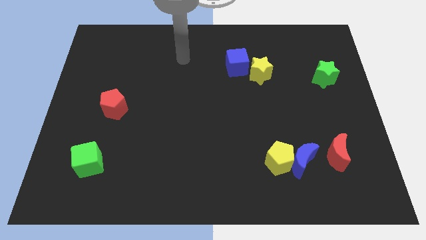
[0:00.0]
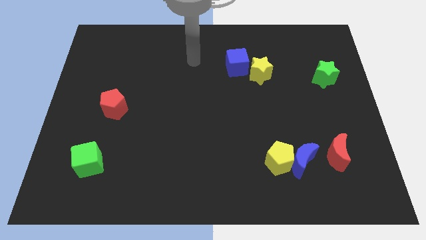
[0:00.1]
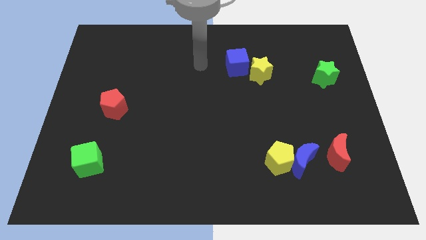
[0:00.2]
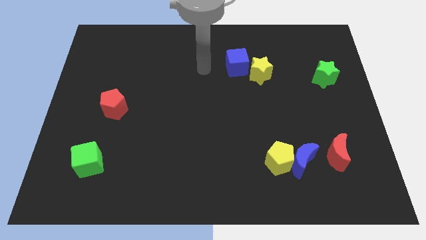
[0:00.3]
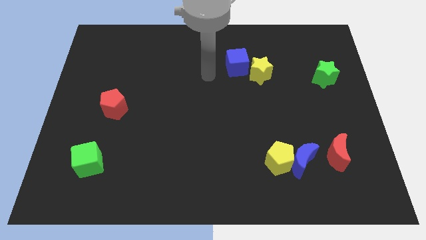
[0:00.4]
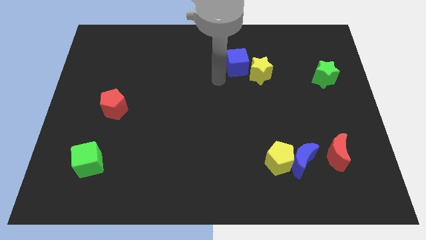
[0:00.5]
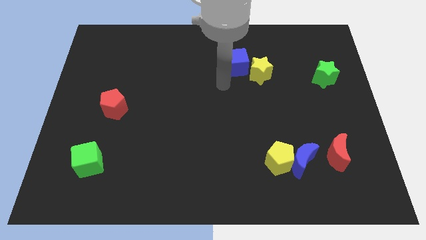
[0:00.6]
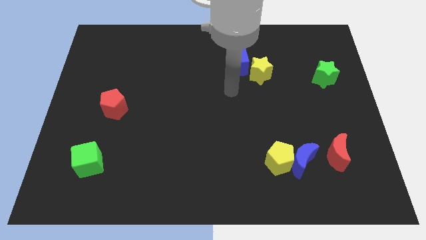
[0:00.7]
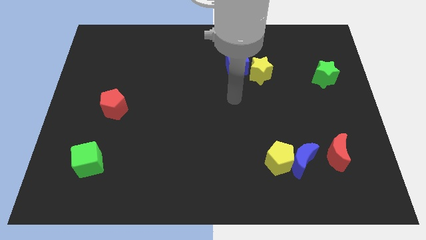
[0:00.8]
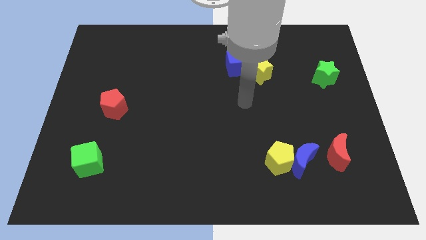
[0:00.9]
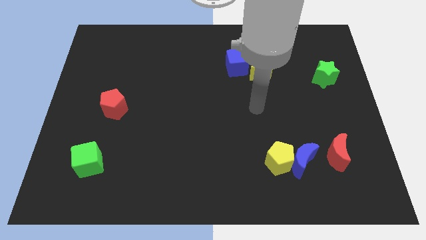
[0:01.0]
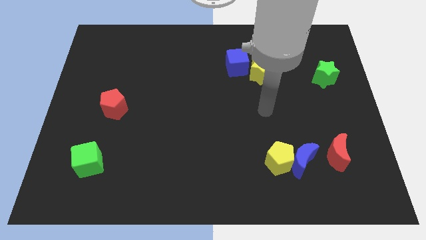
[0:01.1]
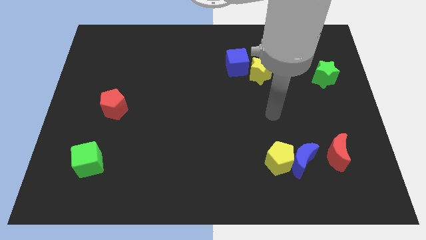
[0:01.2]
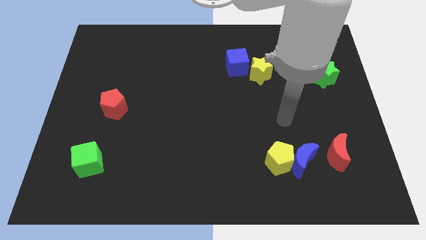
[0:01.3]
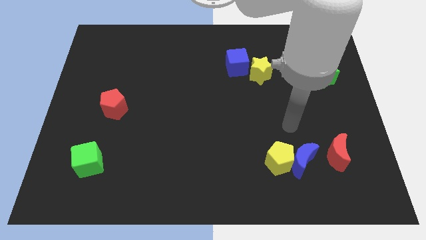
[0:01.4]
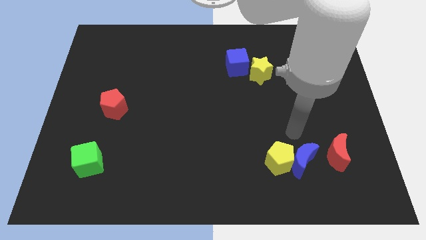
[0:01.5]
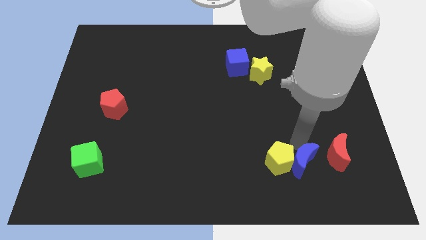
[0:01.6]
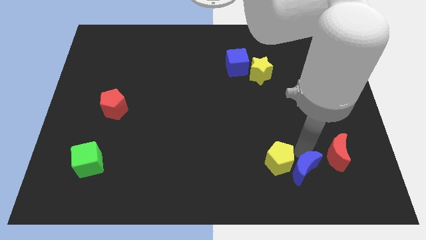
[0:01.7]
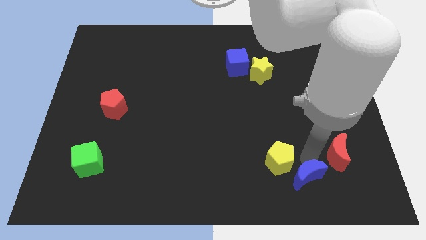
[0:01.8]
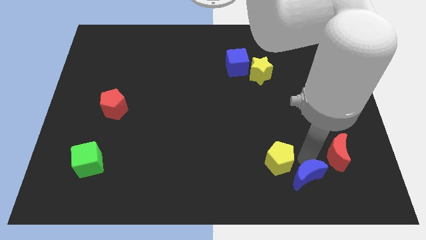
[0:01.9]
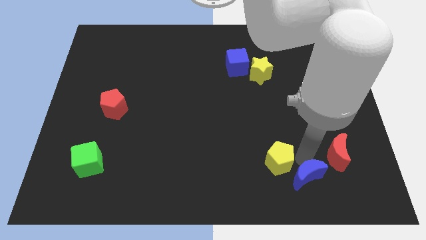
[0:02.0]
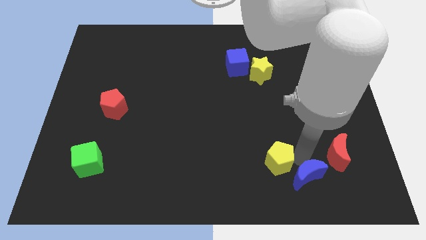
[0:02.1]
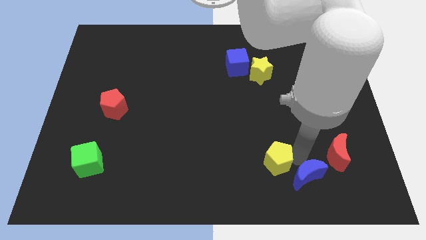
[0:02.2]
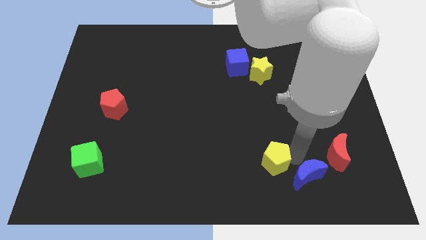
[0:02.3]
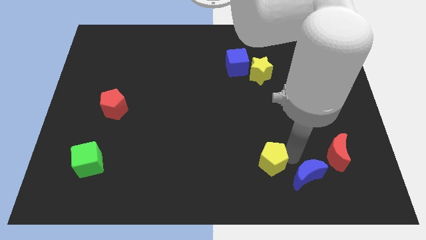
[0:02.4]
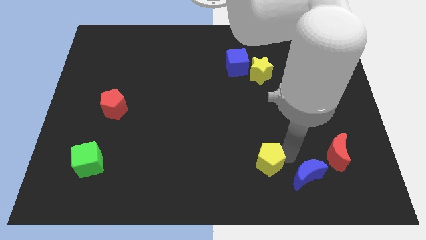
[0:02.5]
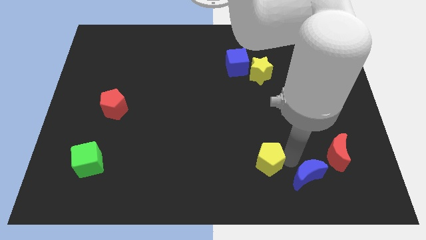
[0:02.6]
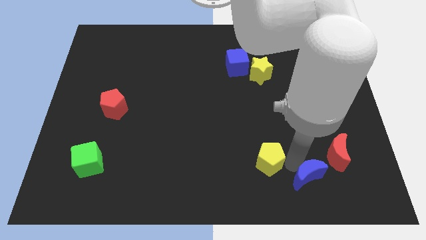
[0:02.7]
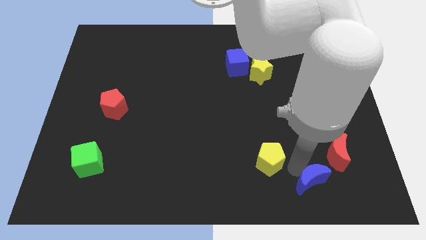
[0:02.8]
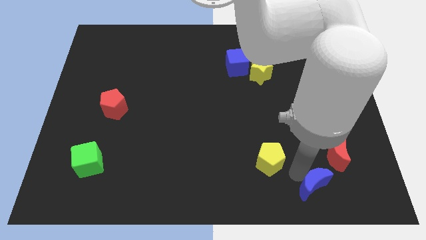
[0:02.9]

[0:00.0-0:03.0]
move the yellow pentagon away from the blue moon

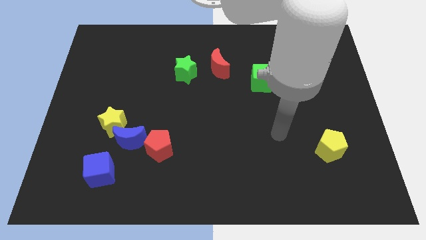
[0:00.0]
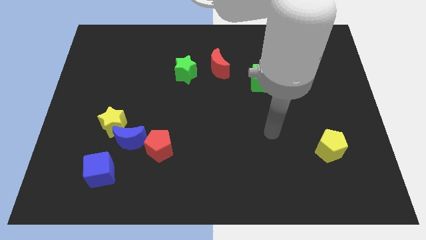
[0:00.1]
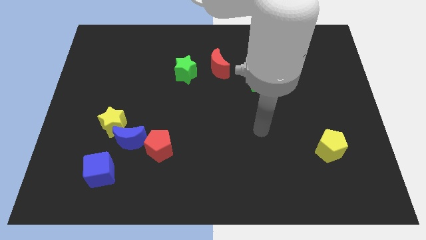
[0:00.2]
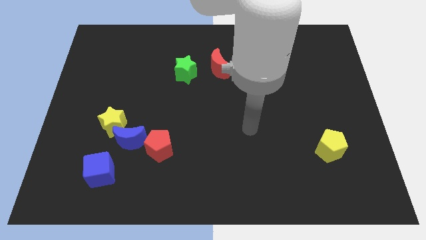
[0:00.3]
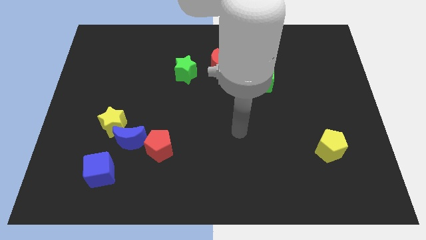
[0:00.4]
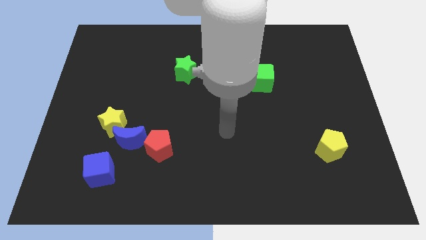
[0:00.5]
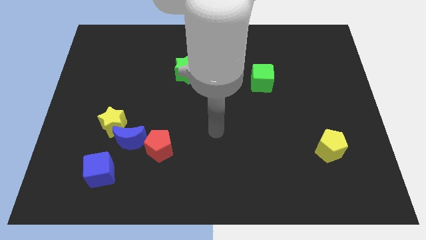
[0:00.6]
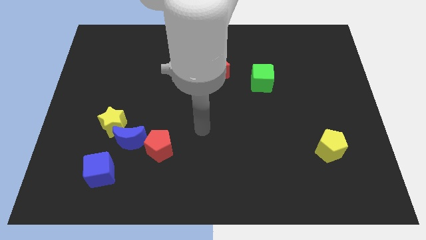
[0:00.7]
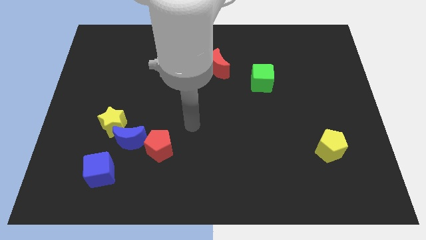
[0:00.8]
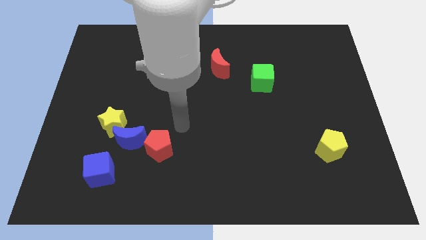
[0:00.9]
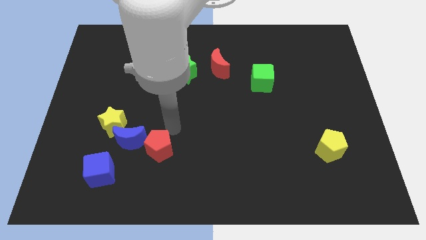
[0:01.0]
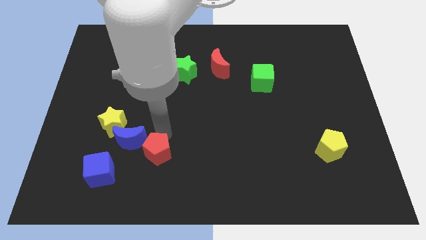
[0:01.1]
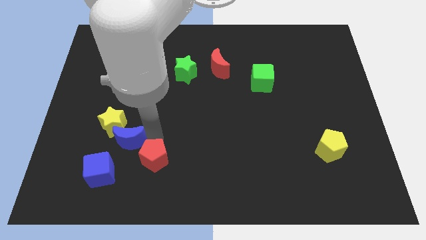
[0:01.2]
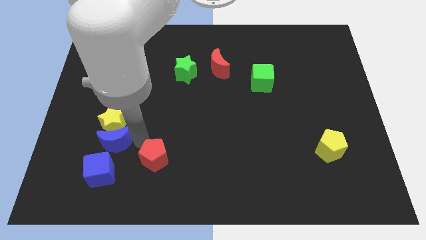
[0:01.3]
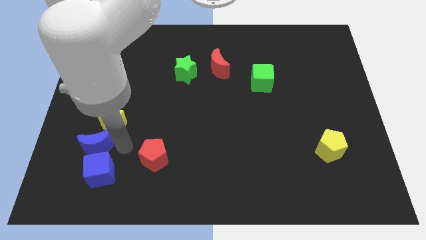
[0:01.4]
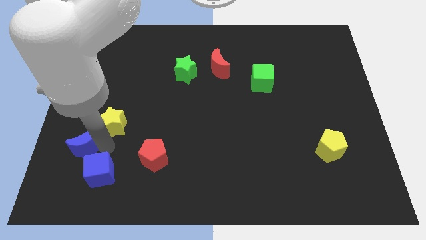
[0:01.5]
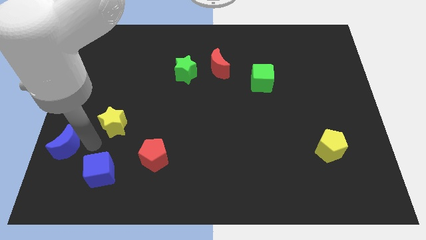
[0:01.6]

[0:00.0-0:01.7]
move the yellow star away from the blue moon

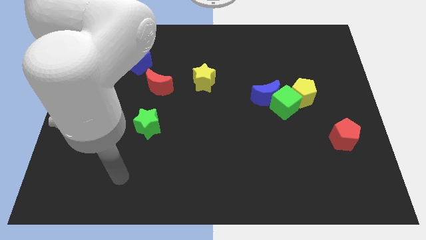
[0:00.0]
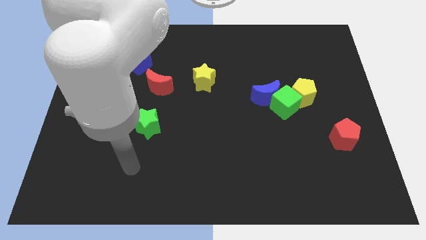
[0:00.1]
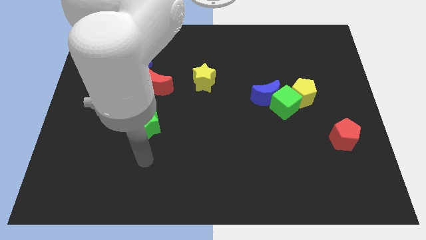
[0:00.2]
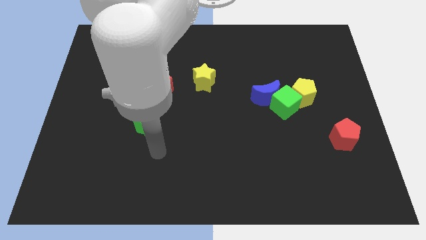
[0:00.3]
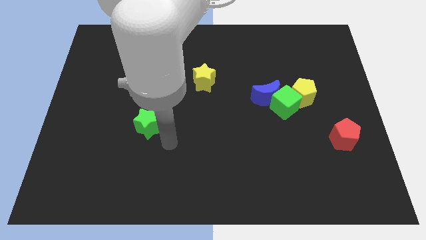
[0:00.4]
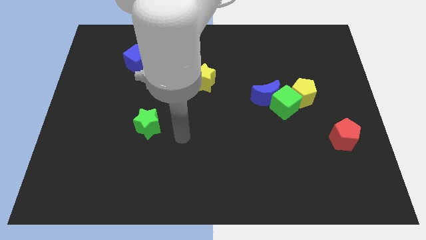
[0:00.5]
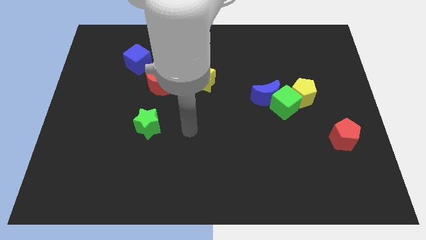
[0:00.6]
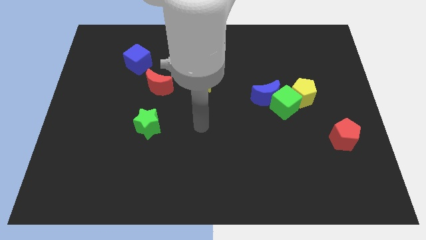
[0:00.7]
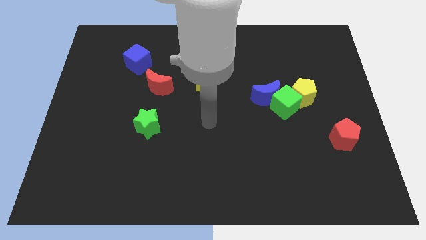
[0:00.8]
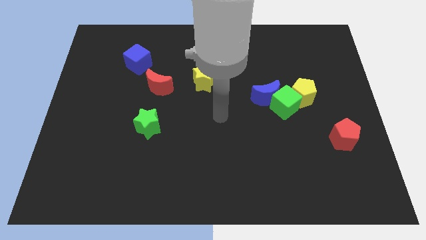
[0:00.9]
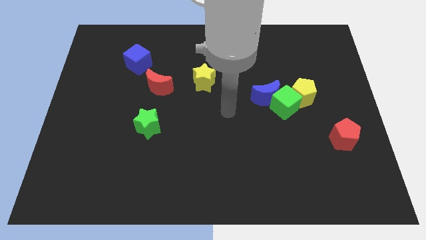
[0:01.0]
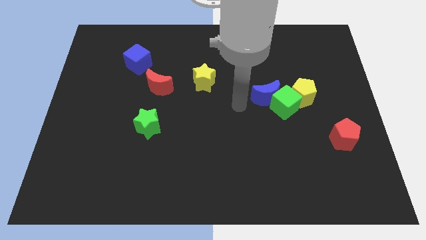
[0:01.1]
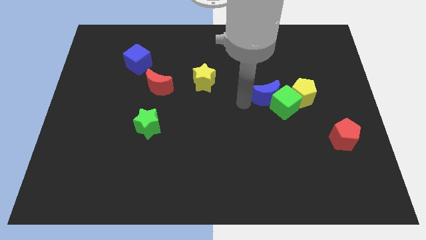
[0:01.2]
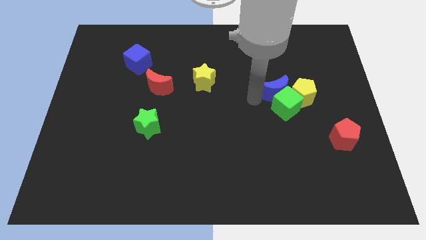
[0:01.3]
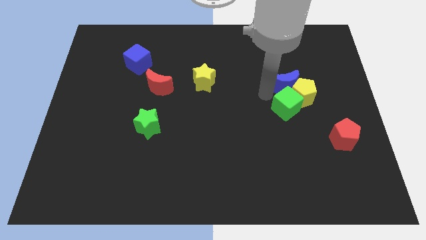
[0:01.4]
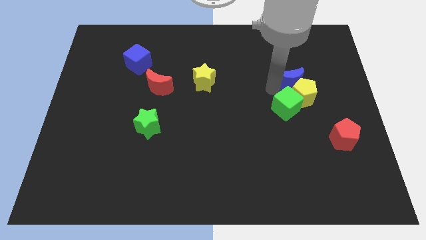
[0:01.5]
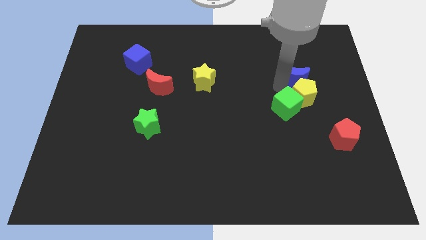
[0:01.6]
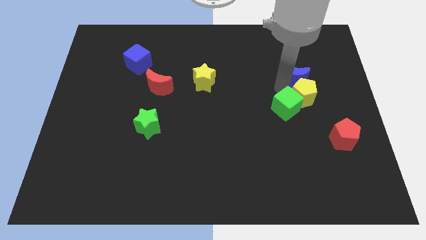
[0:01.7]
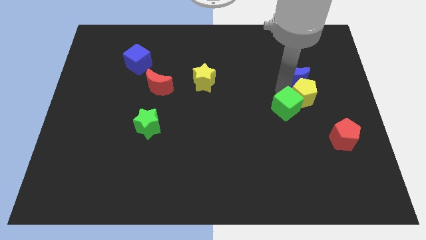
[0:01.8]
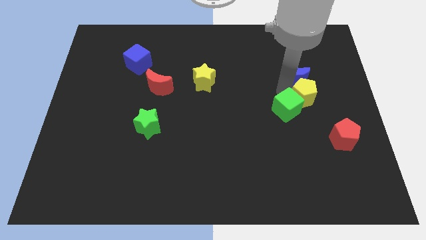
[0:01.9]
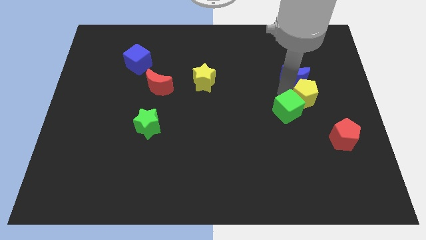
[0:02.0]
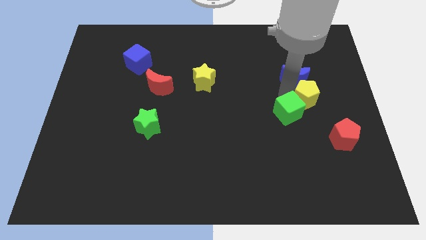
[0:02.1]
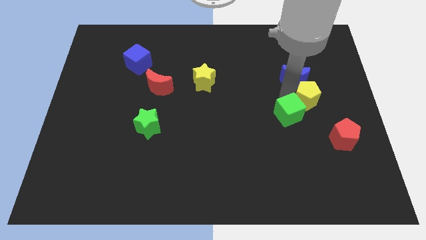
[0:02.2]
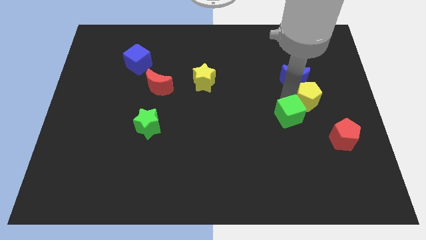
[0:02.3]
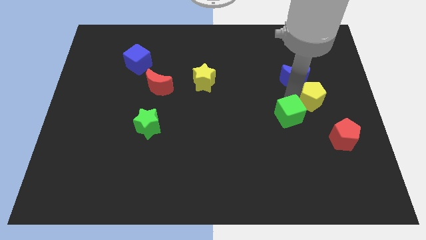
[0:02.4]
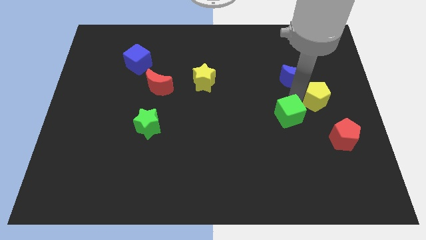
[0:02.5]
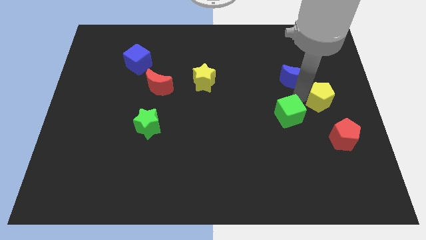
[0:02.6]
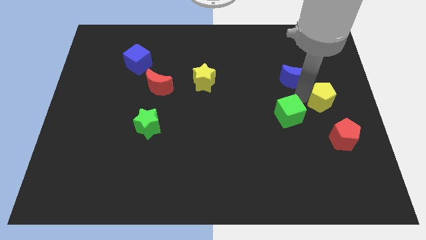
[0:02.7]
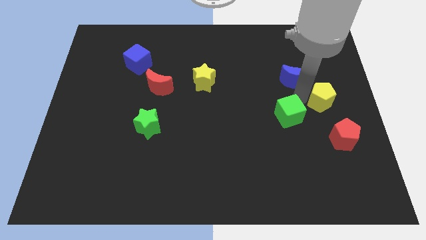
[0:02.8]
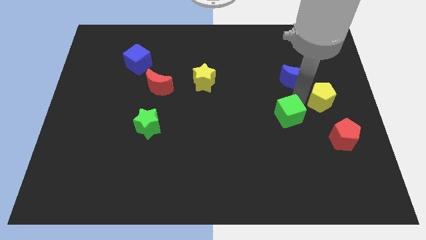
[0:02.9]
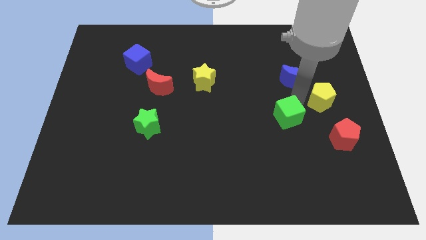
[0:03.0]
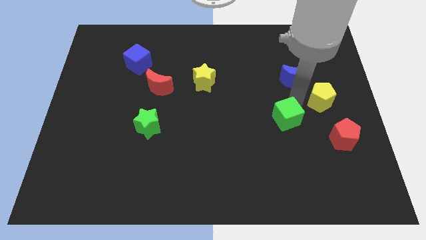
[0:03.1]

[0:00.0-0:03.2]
move the green cube away from the blue moon and yellow pentagon

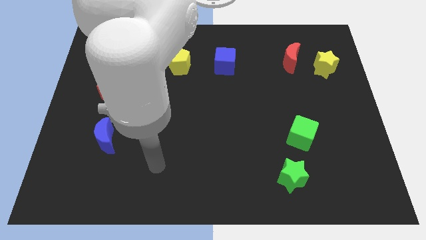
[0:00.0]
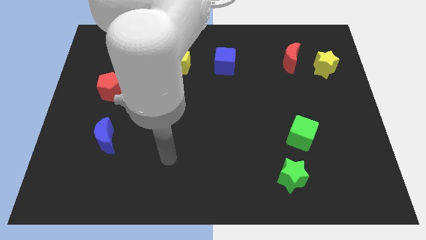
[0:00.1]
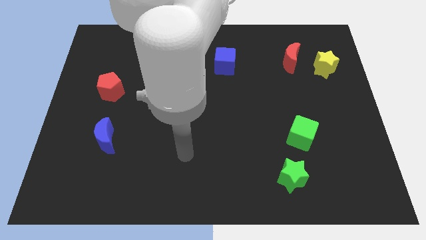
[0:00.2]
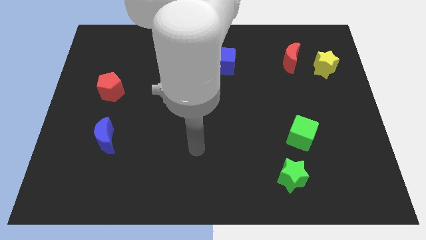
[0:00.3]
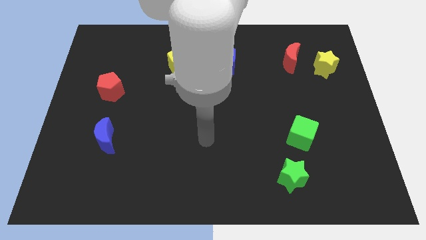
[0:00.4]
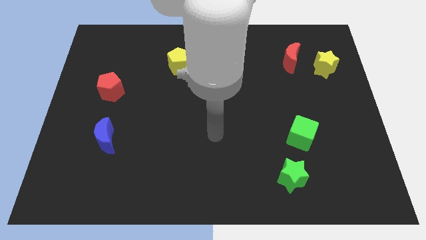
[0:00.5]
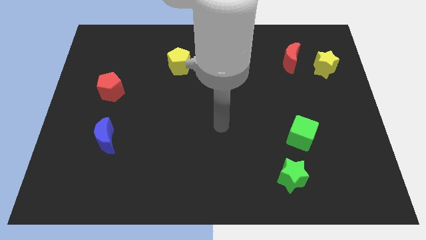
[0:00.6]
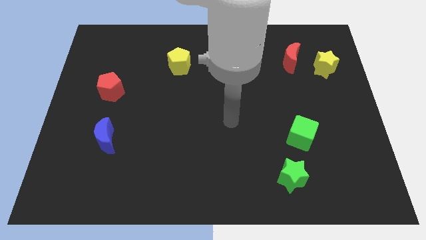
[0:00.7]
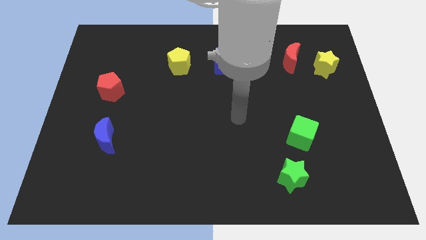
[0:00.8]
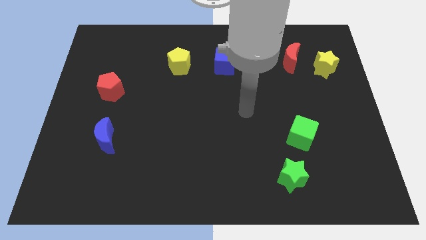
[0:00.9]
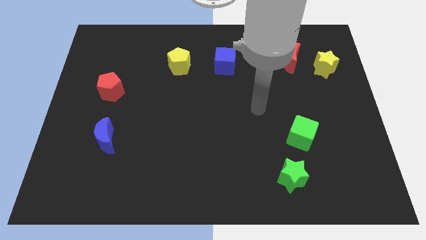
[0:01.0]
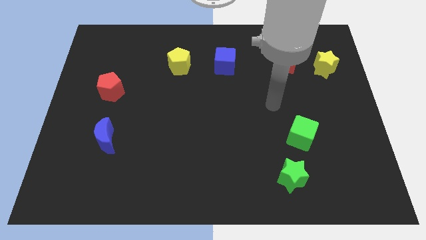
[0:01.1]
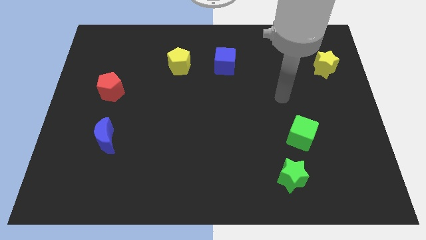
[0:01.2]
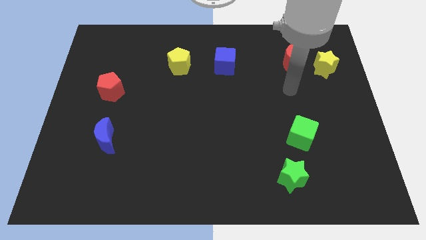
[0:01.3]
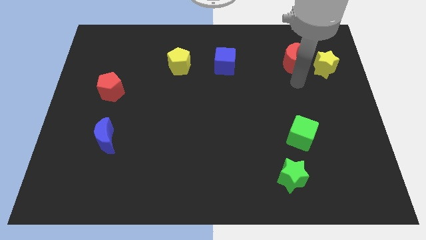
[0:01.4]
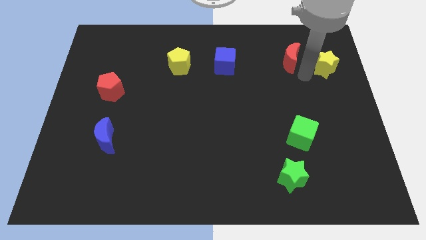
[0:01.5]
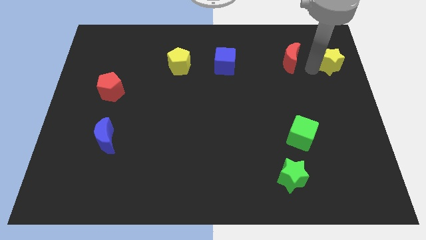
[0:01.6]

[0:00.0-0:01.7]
separate the red moon from the yellow star
